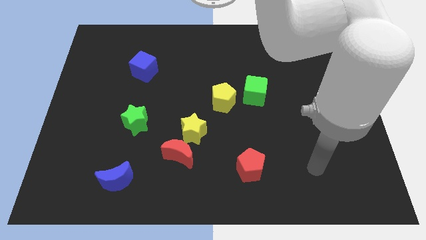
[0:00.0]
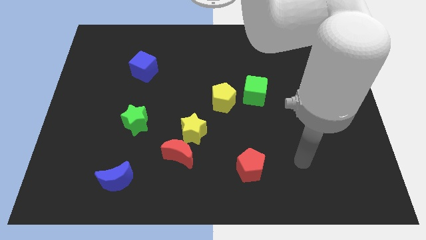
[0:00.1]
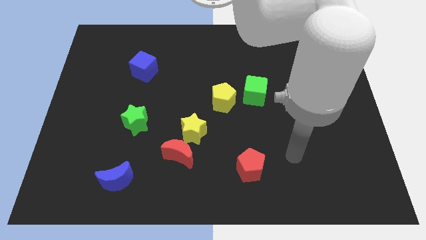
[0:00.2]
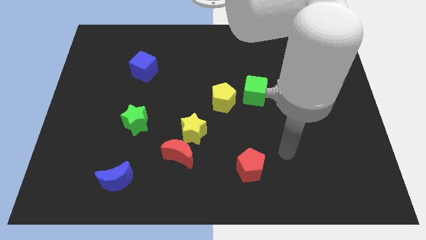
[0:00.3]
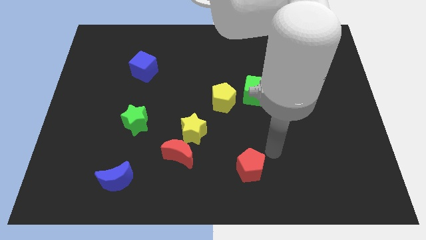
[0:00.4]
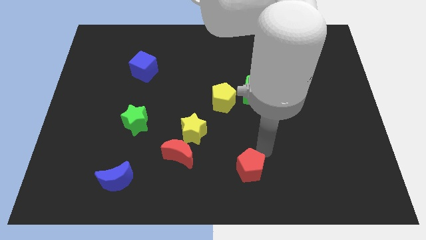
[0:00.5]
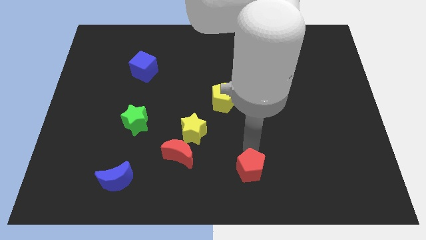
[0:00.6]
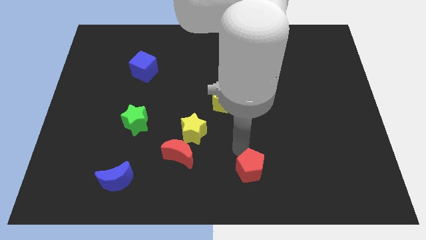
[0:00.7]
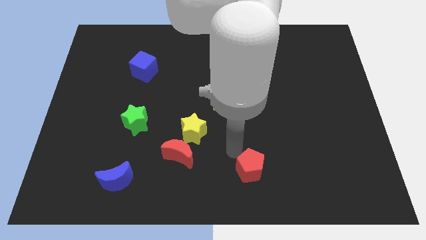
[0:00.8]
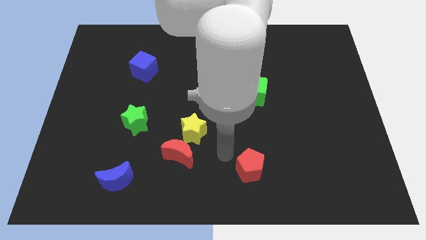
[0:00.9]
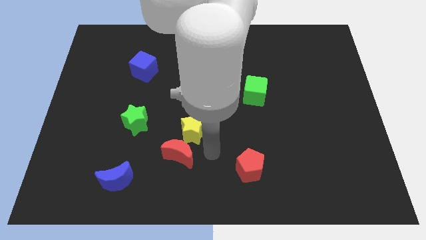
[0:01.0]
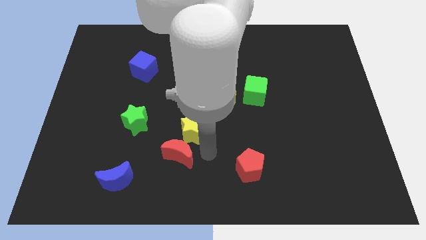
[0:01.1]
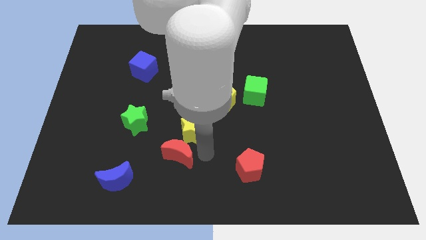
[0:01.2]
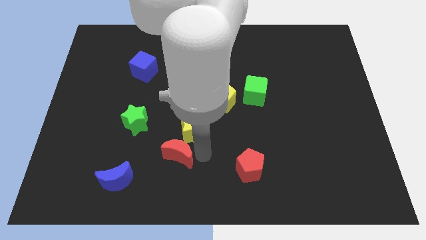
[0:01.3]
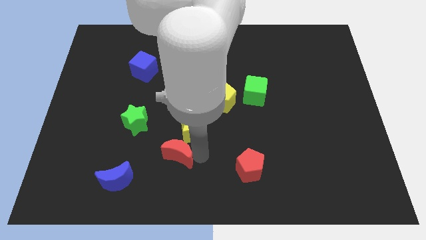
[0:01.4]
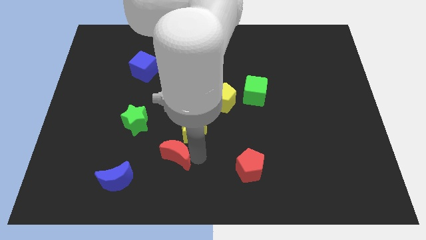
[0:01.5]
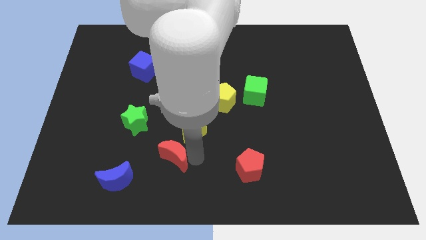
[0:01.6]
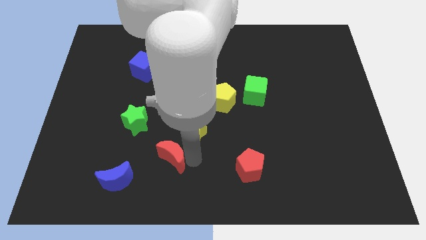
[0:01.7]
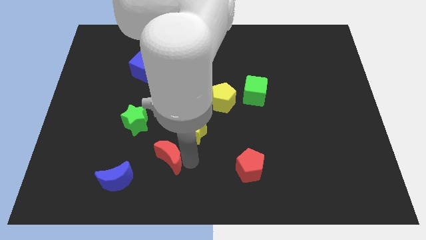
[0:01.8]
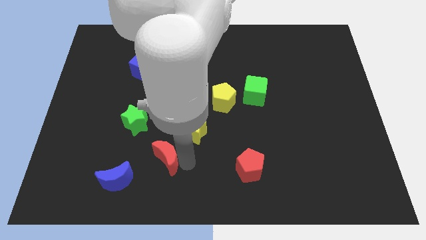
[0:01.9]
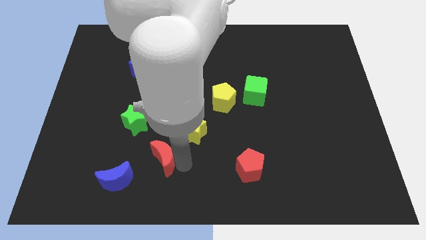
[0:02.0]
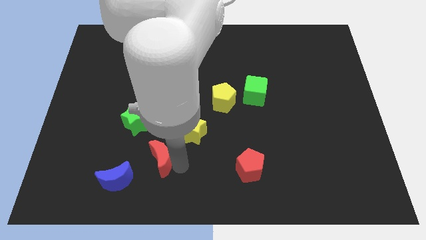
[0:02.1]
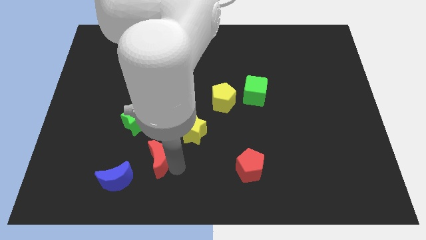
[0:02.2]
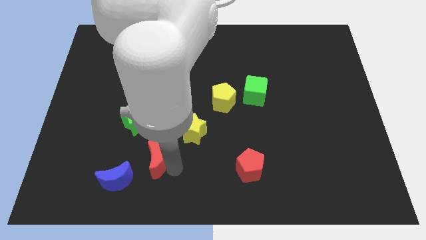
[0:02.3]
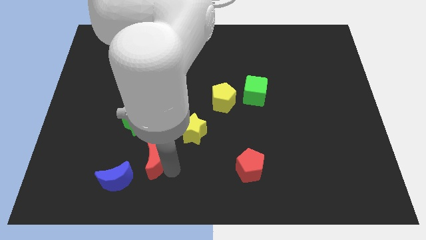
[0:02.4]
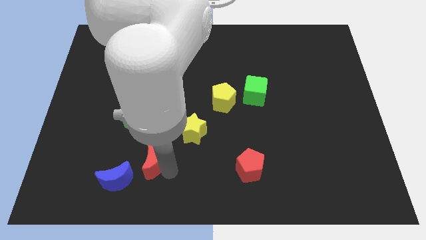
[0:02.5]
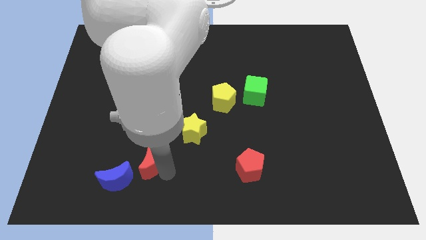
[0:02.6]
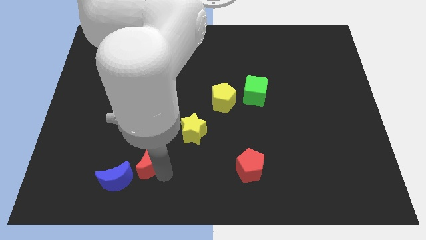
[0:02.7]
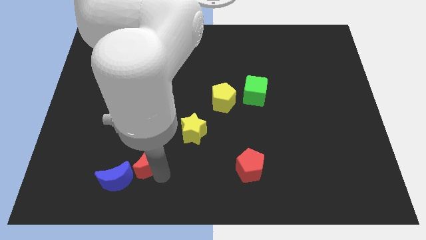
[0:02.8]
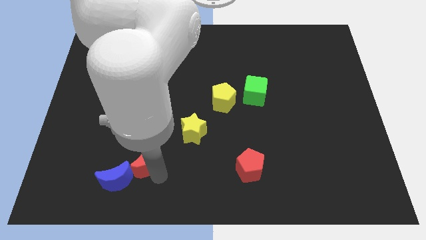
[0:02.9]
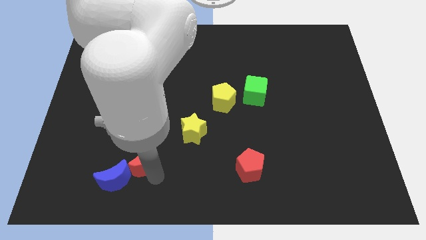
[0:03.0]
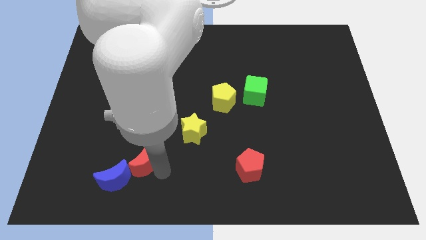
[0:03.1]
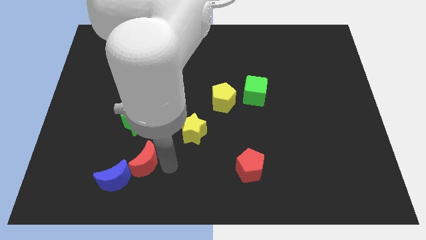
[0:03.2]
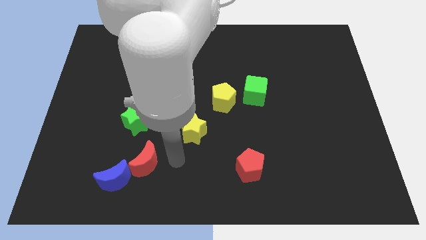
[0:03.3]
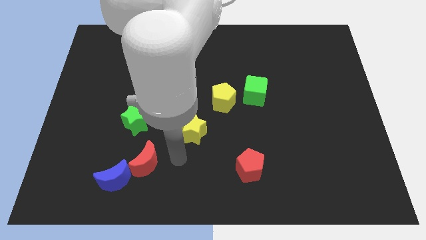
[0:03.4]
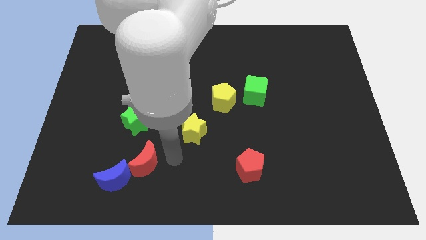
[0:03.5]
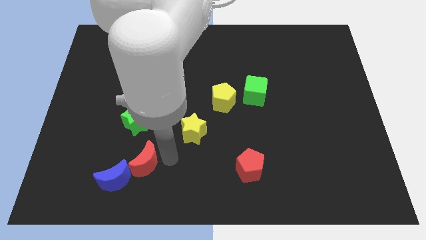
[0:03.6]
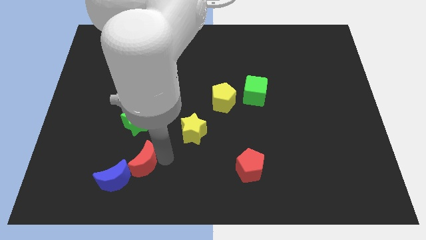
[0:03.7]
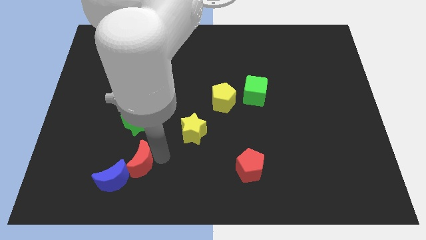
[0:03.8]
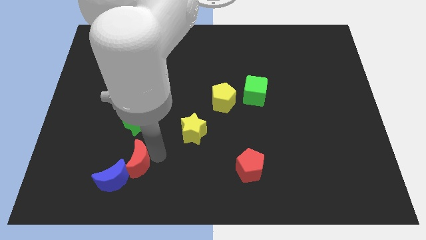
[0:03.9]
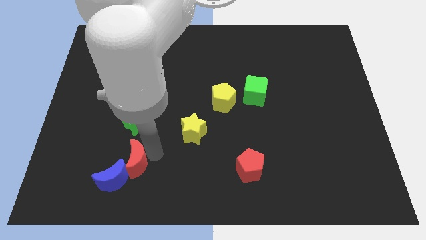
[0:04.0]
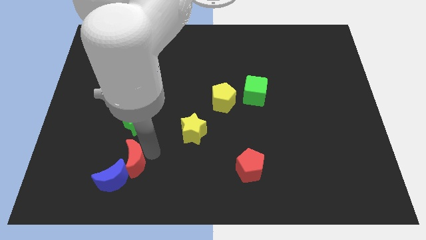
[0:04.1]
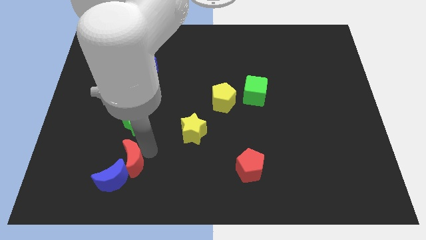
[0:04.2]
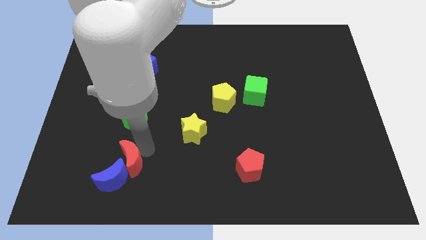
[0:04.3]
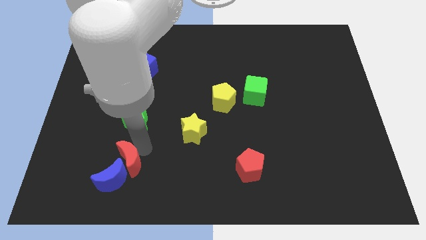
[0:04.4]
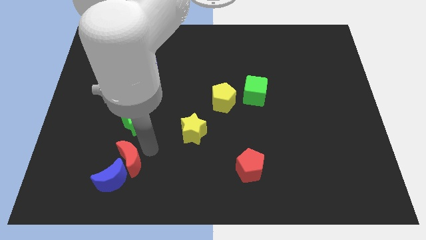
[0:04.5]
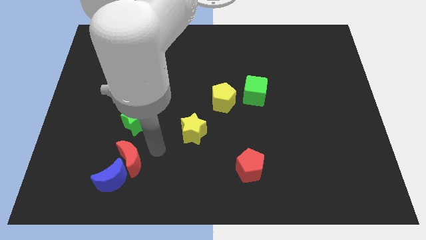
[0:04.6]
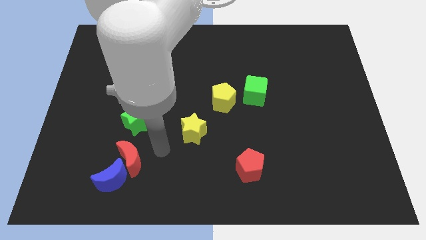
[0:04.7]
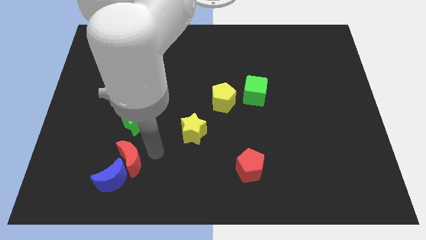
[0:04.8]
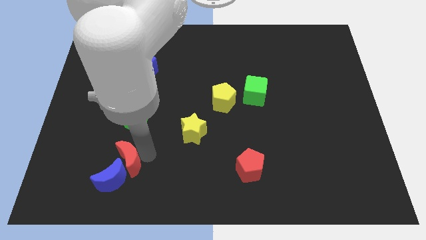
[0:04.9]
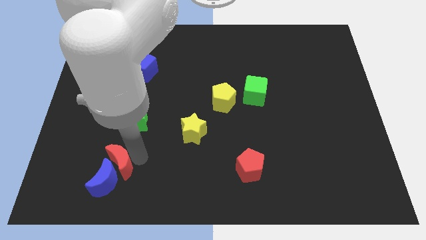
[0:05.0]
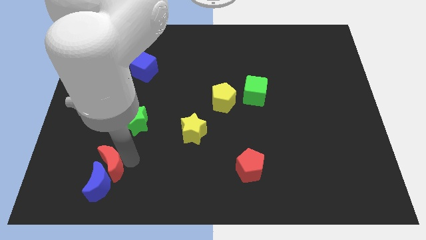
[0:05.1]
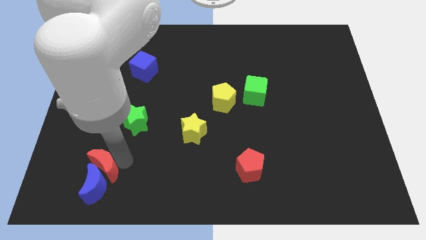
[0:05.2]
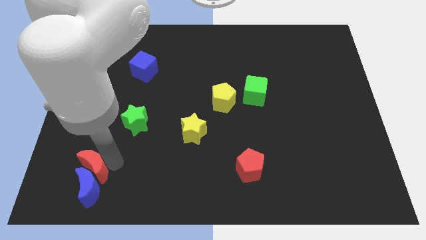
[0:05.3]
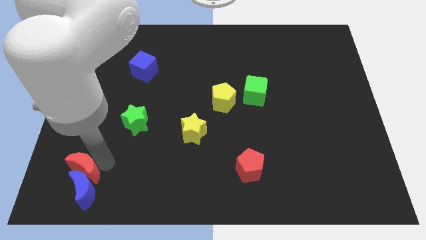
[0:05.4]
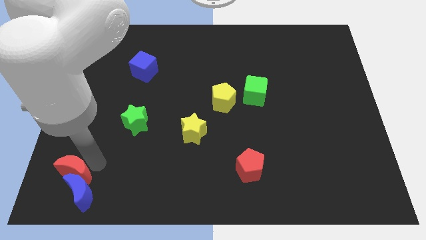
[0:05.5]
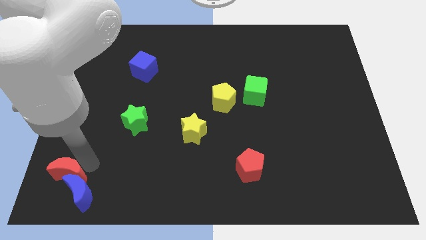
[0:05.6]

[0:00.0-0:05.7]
move the red moon to the bottom left

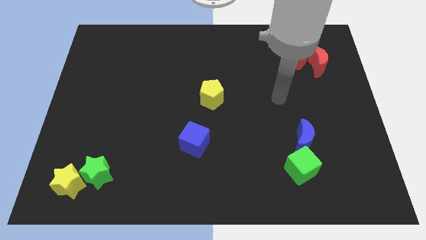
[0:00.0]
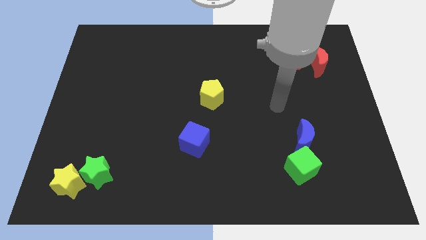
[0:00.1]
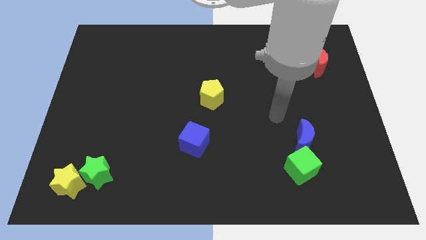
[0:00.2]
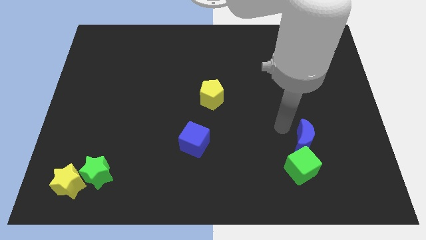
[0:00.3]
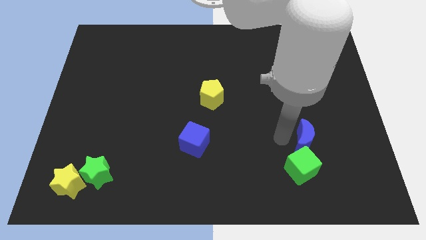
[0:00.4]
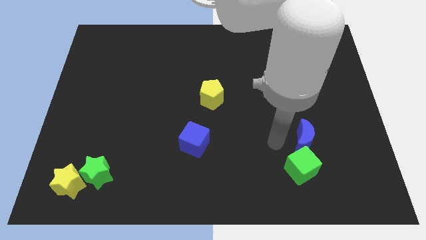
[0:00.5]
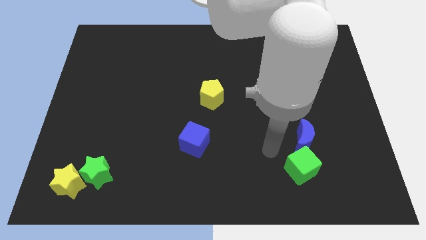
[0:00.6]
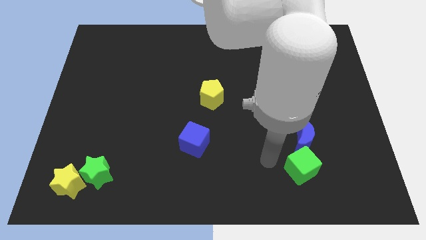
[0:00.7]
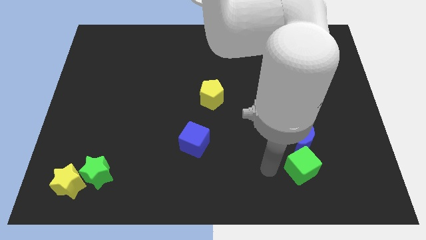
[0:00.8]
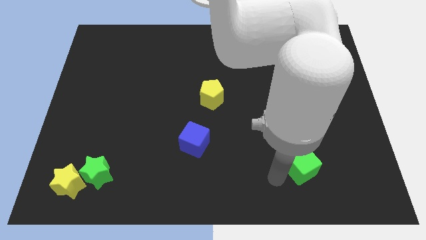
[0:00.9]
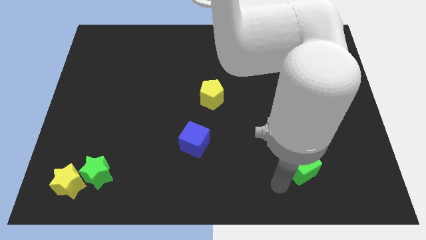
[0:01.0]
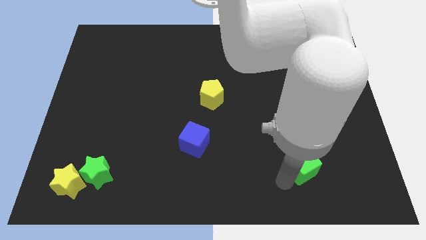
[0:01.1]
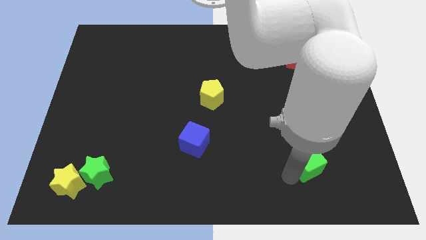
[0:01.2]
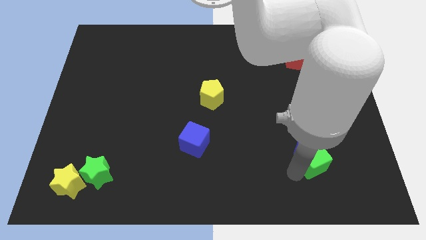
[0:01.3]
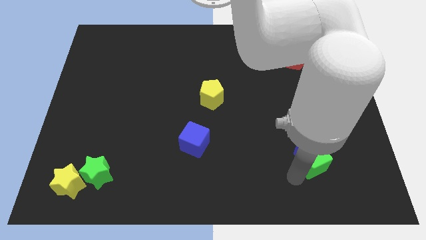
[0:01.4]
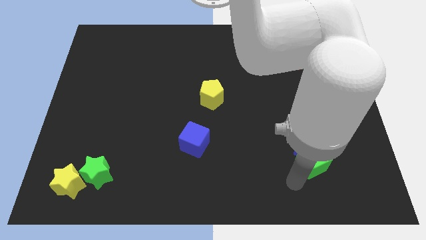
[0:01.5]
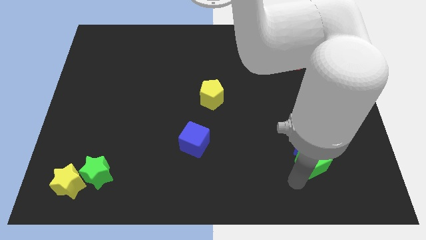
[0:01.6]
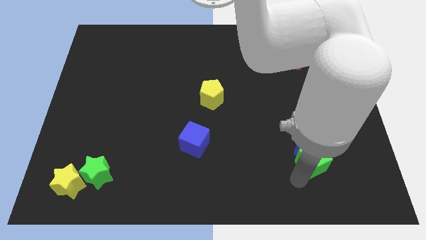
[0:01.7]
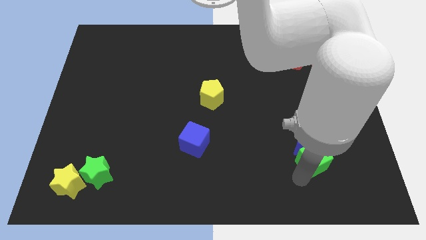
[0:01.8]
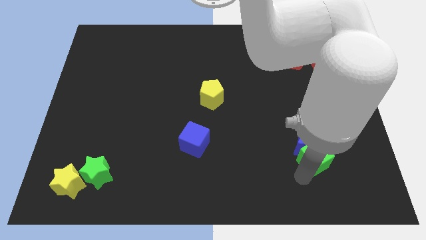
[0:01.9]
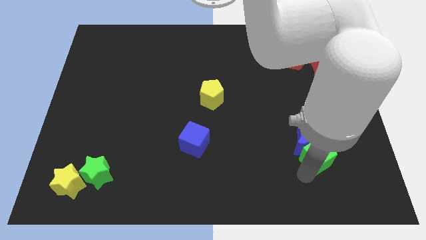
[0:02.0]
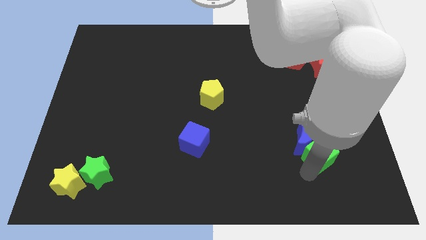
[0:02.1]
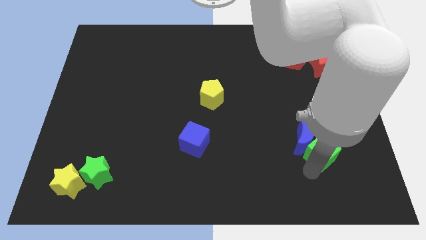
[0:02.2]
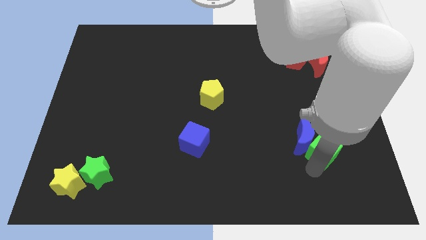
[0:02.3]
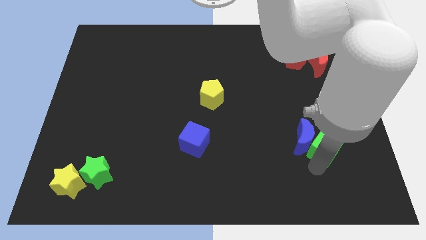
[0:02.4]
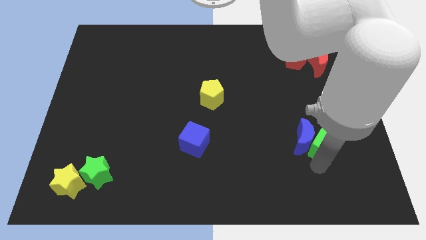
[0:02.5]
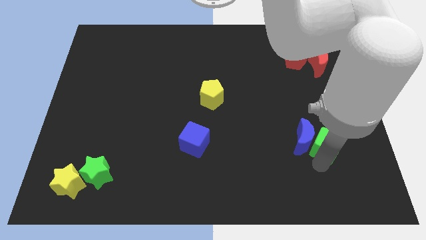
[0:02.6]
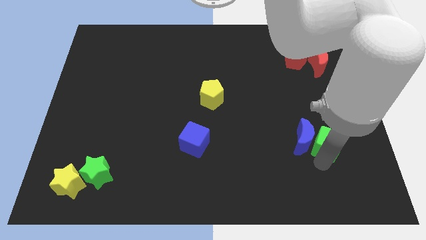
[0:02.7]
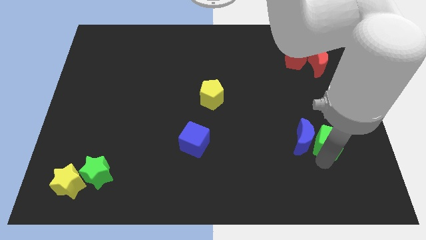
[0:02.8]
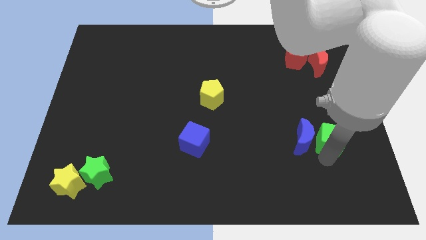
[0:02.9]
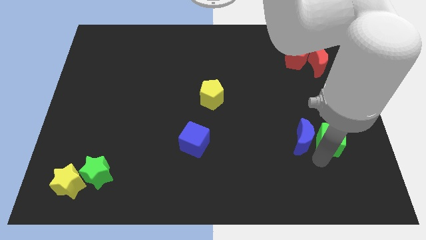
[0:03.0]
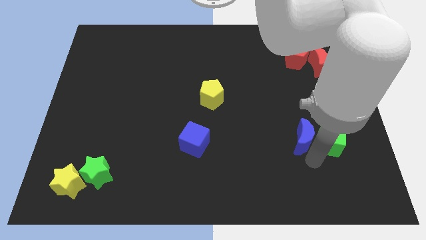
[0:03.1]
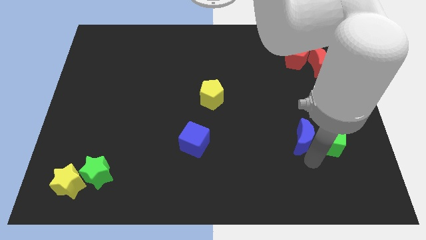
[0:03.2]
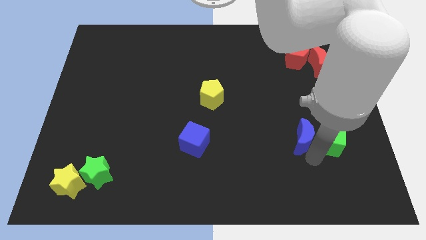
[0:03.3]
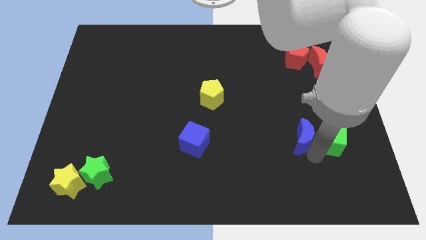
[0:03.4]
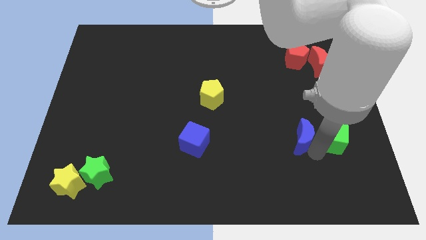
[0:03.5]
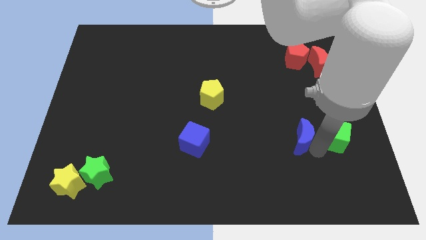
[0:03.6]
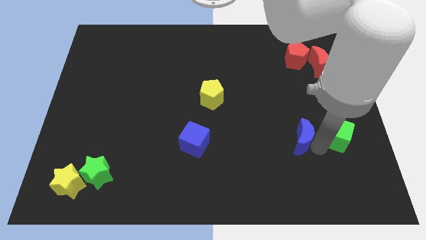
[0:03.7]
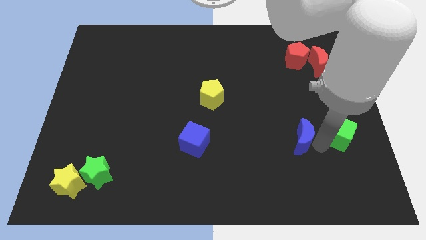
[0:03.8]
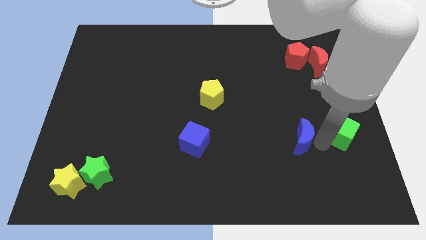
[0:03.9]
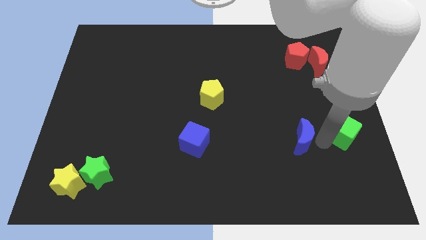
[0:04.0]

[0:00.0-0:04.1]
slide the green cube to the center right
